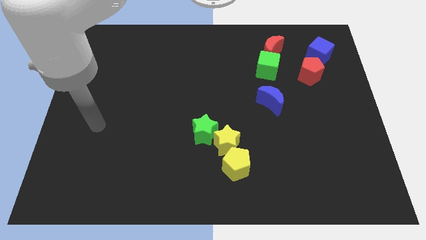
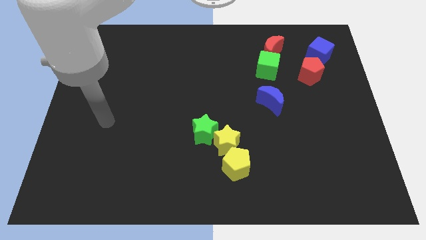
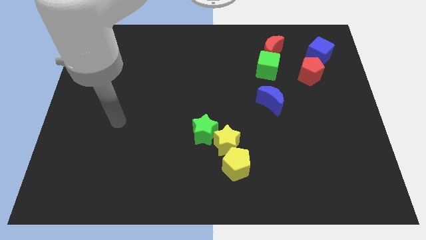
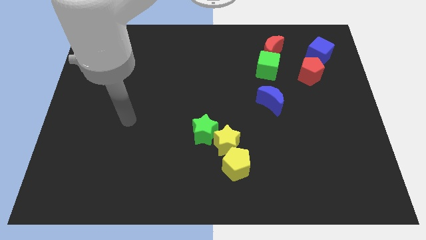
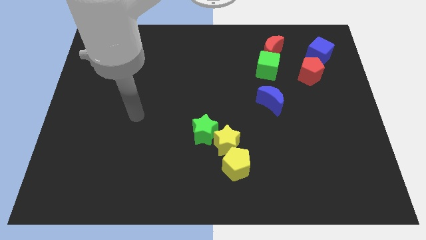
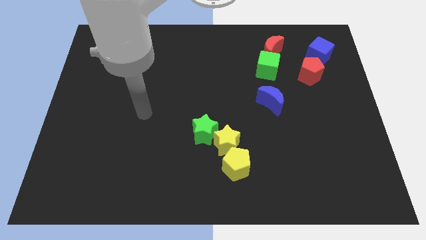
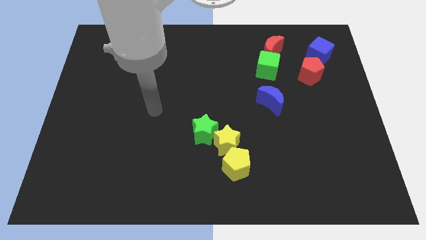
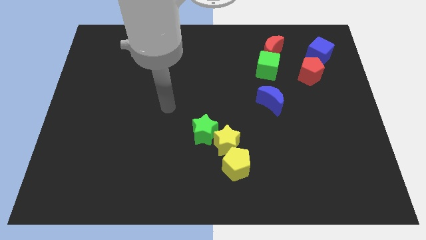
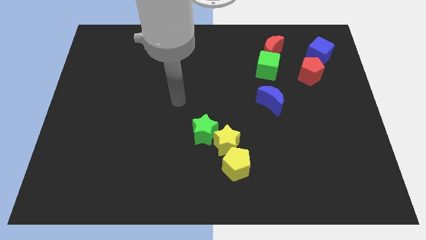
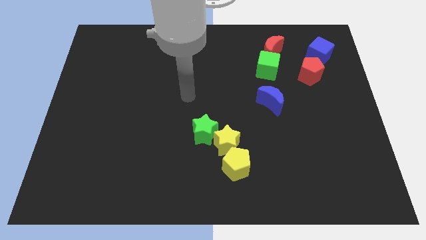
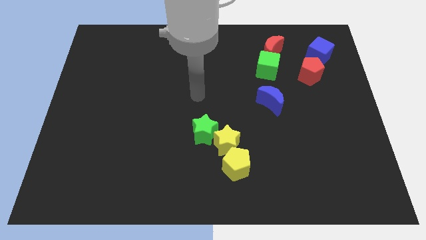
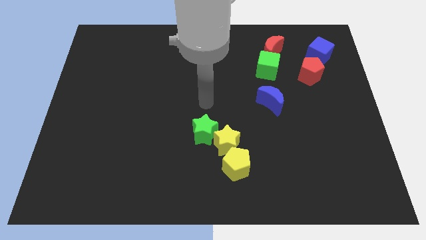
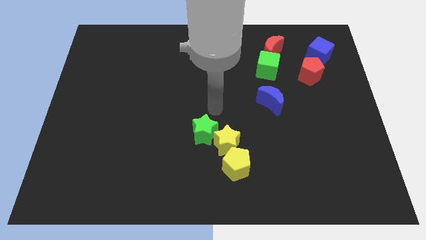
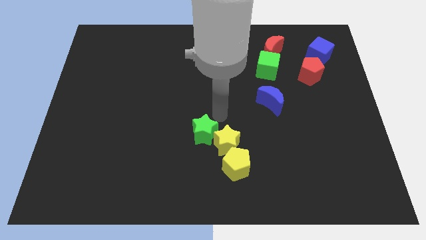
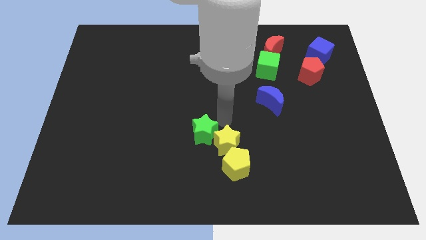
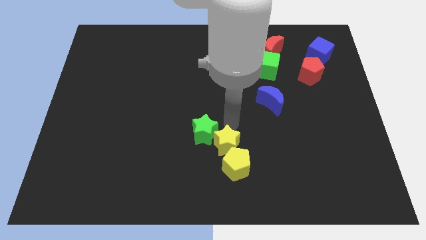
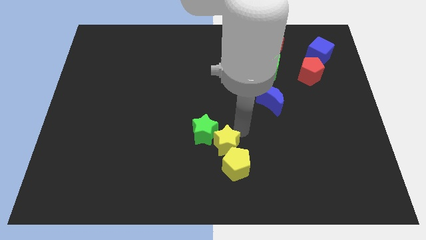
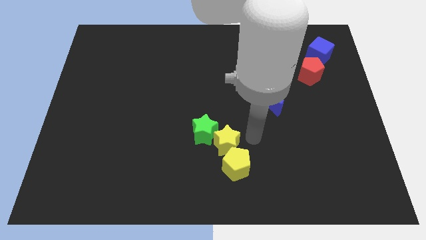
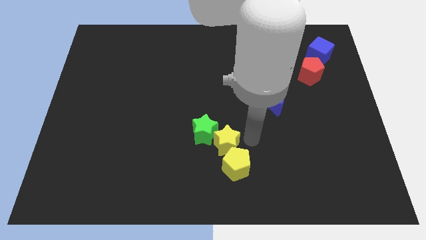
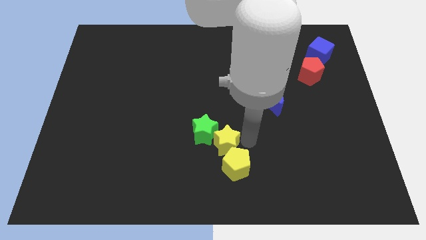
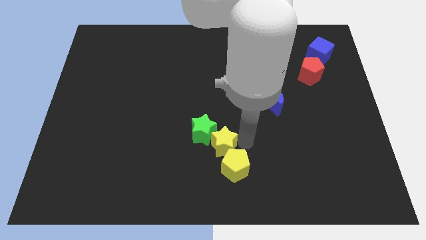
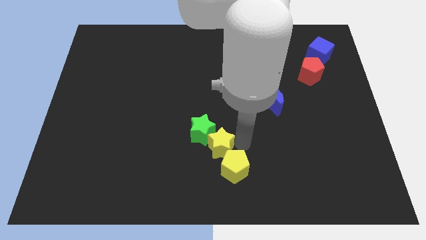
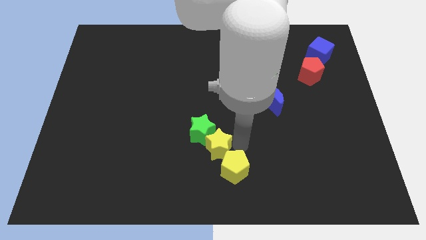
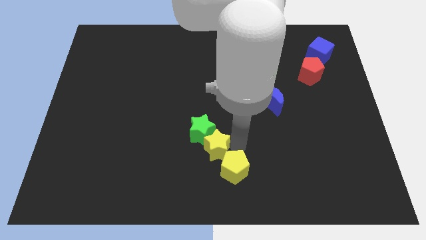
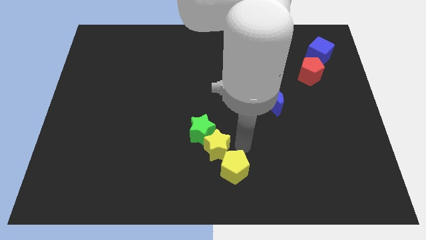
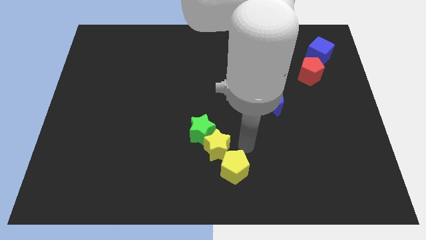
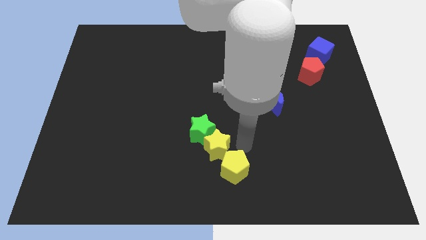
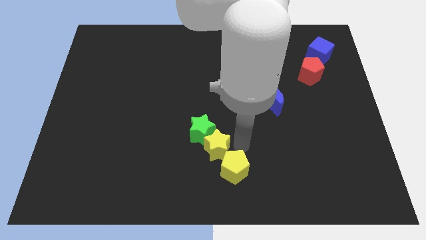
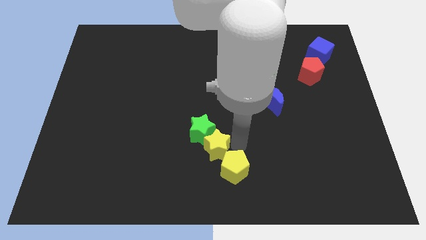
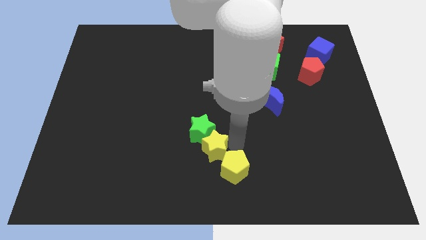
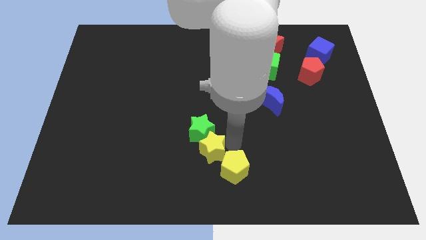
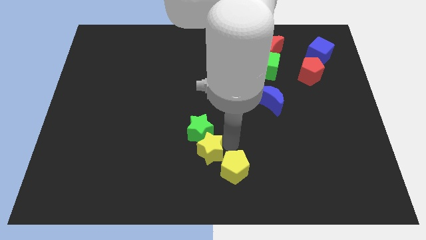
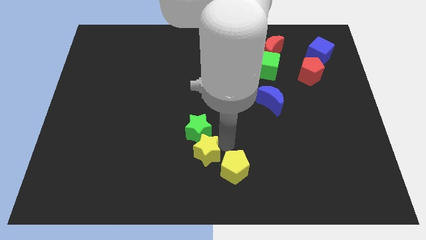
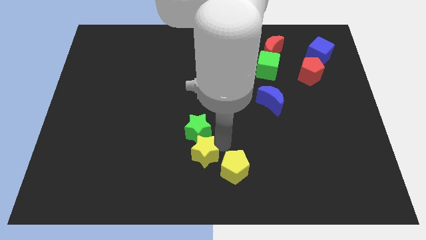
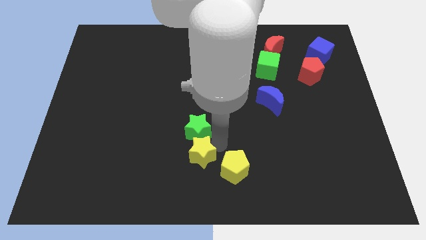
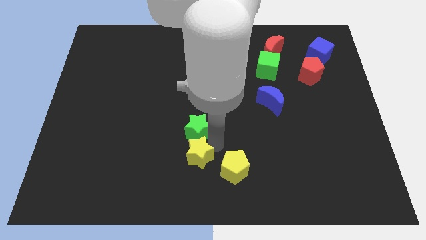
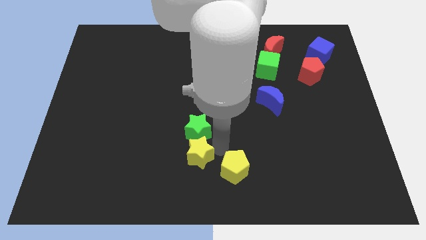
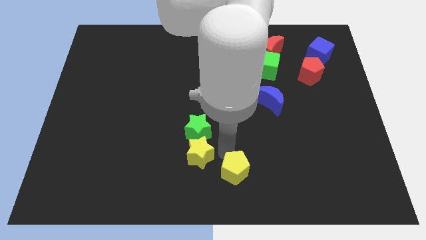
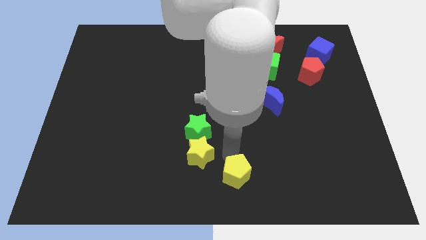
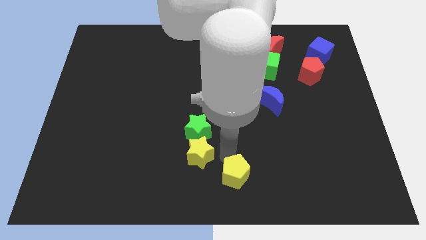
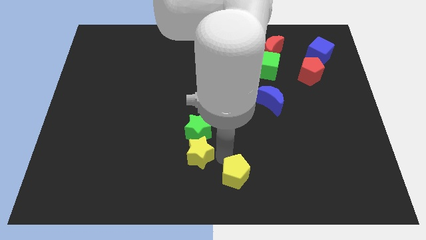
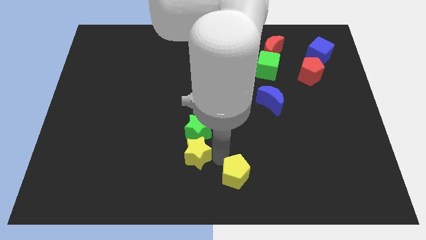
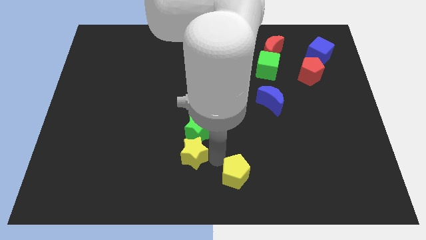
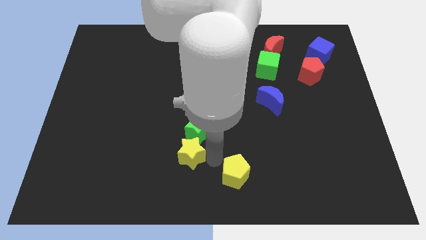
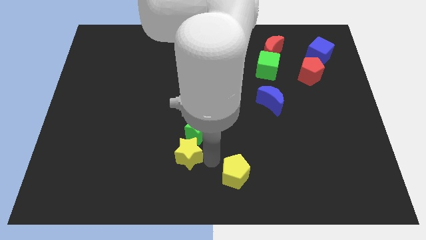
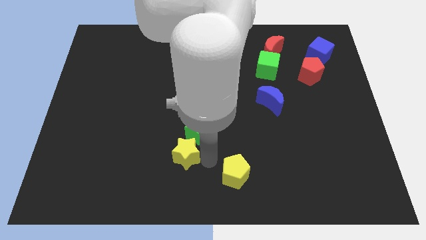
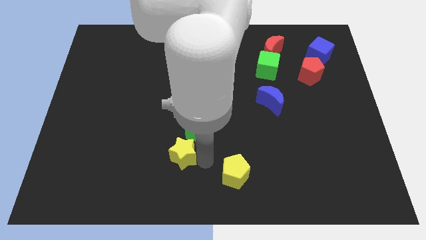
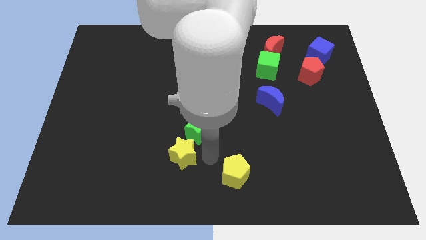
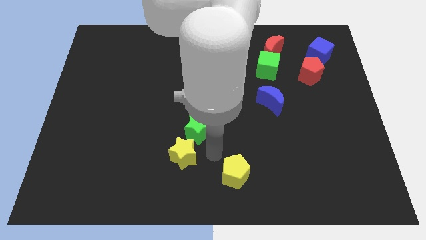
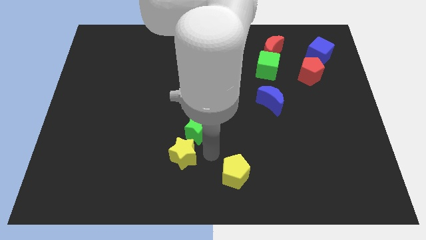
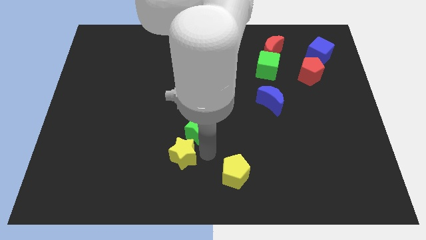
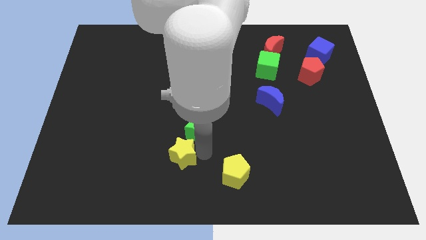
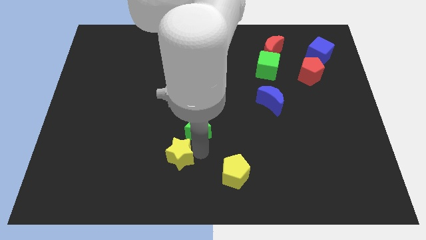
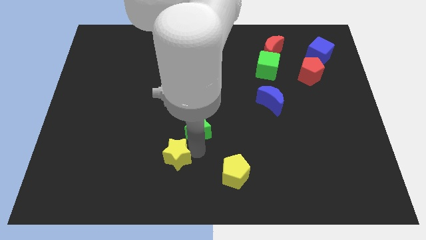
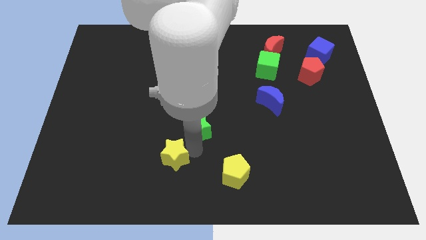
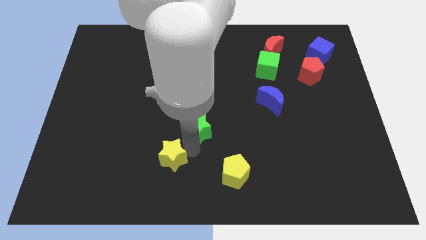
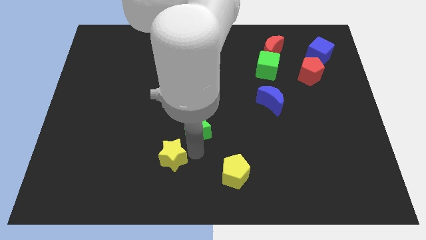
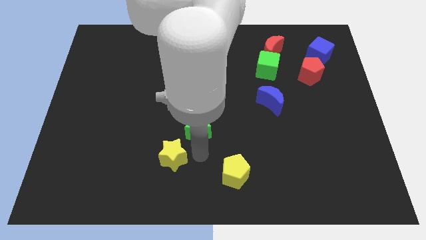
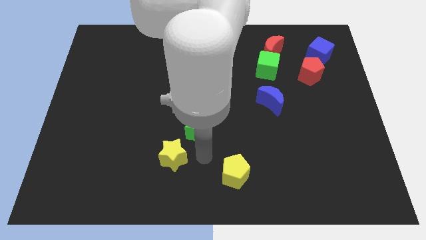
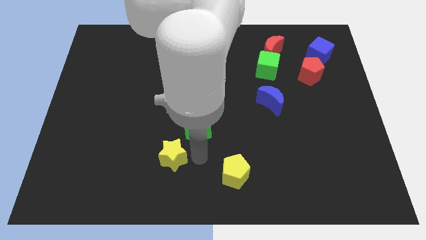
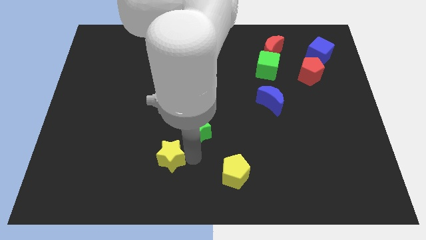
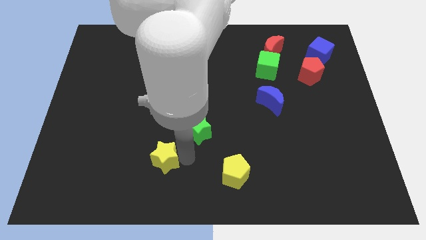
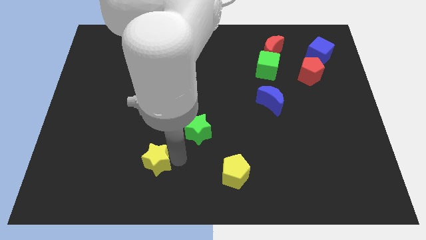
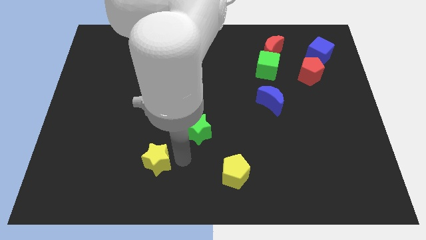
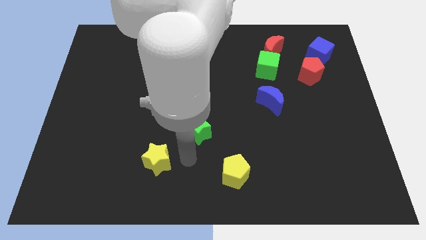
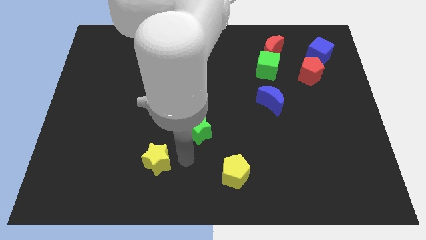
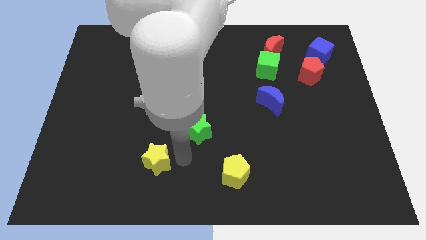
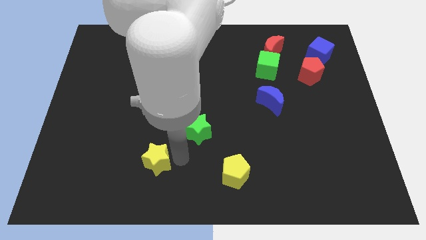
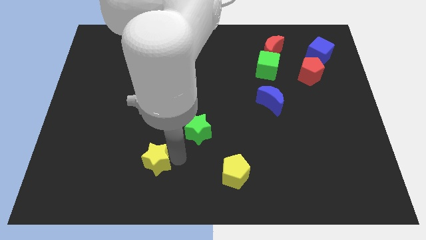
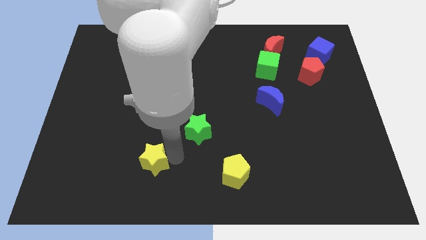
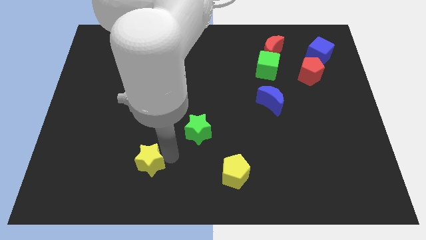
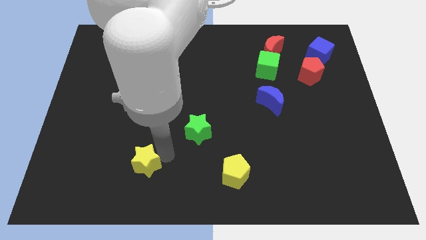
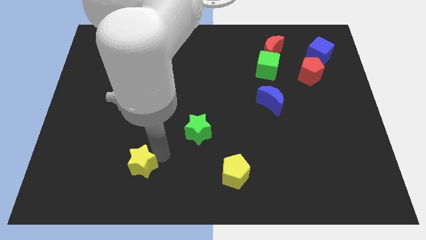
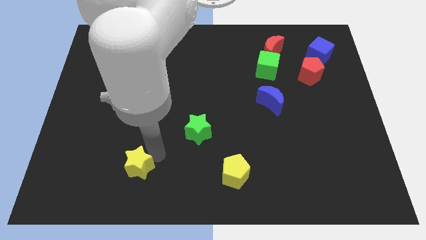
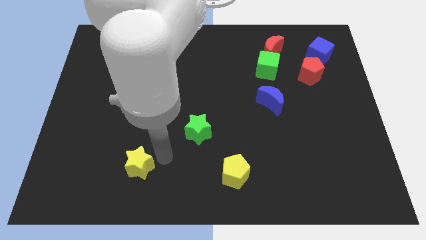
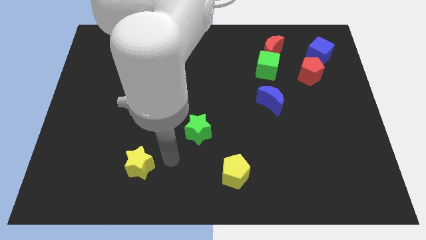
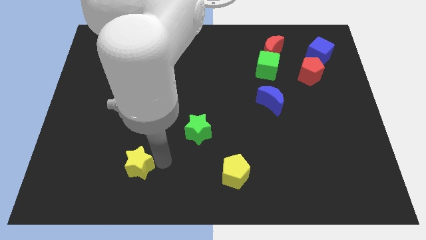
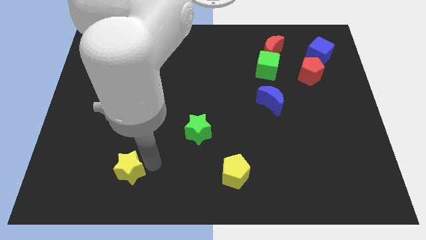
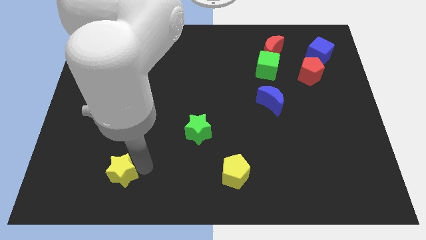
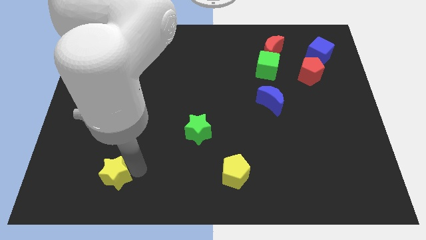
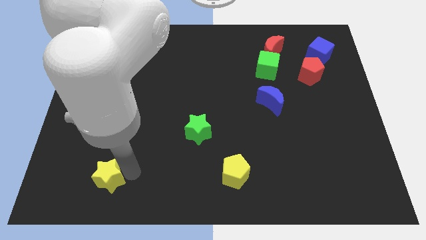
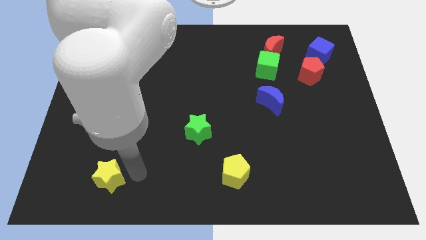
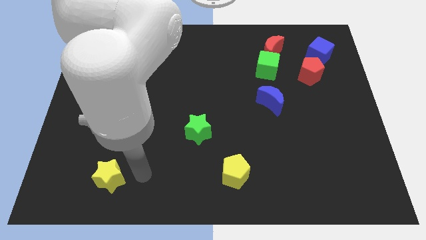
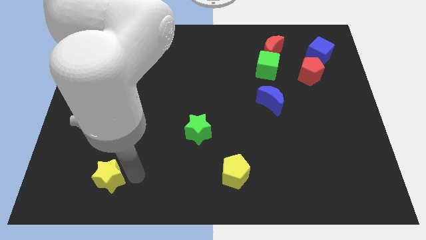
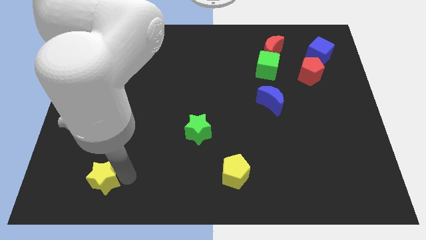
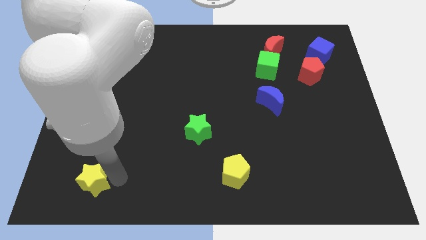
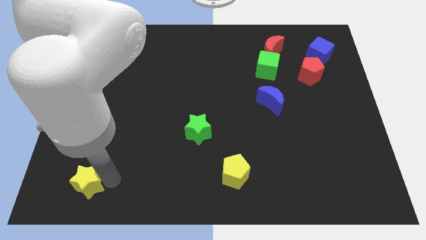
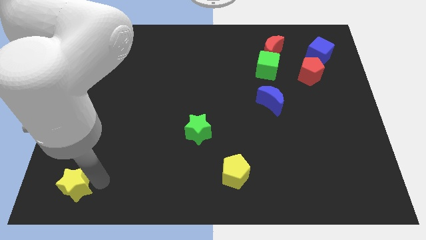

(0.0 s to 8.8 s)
put the yellow star to the lower left corner
